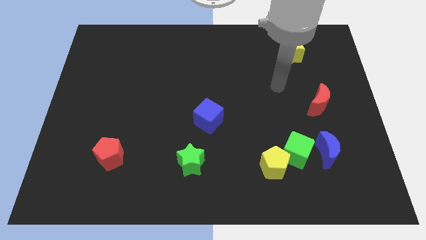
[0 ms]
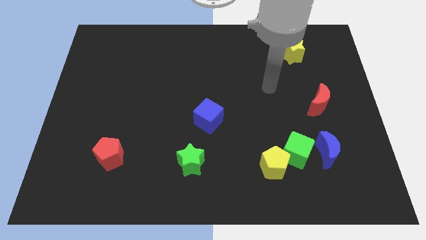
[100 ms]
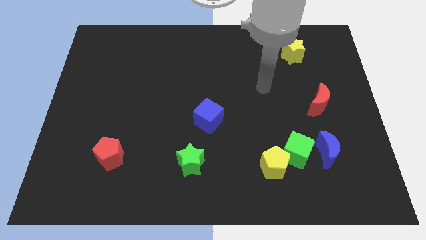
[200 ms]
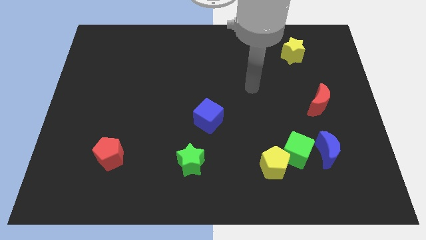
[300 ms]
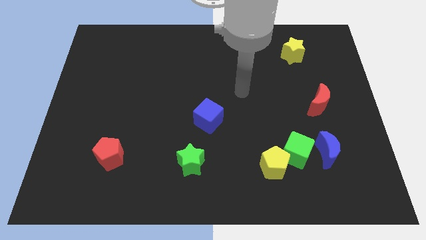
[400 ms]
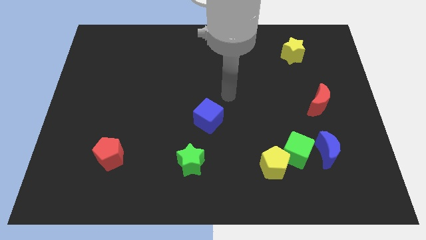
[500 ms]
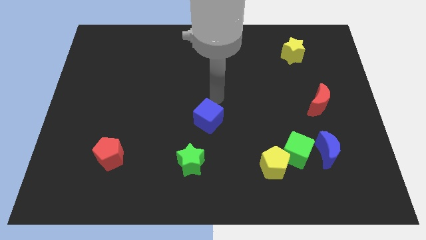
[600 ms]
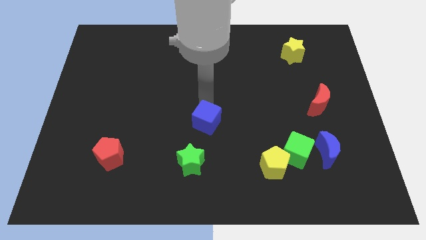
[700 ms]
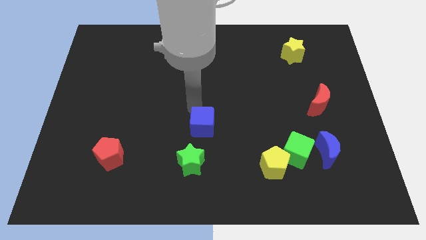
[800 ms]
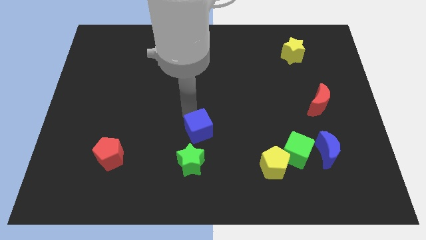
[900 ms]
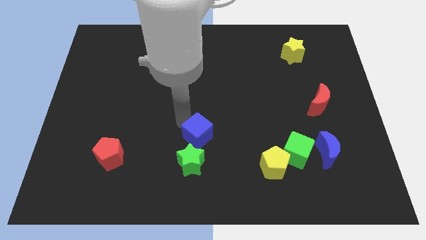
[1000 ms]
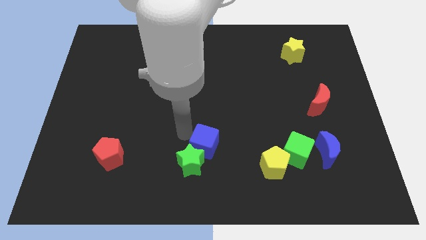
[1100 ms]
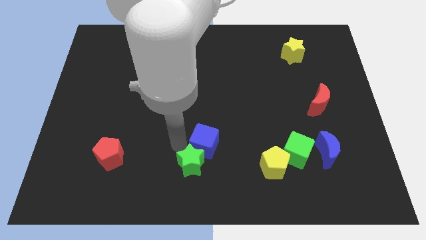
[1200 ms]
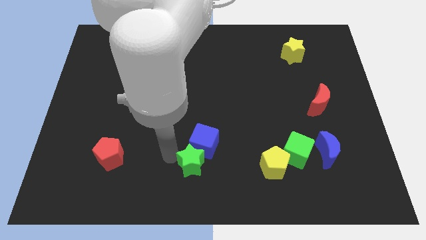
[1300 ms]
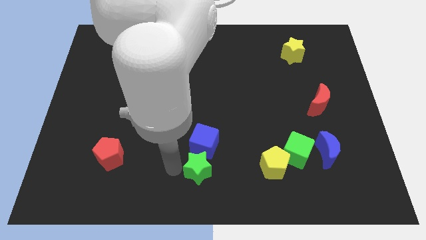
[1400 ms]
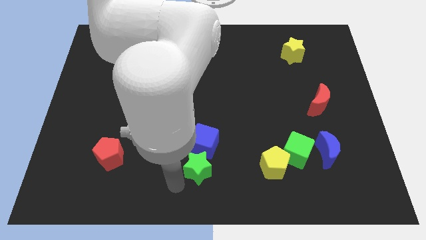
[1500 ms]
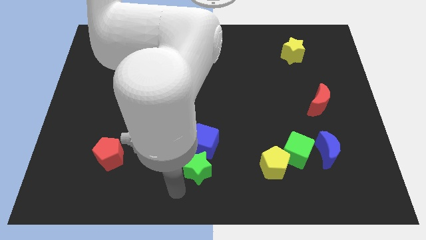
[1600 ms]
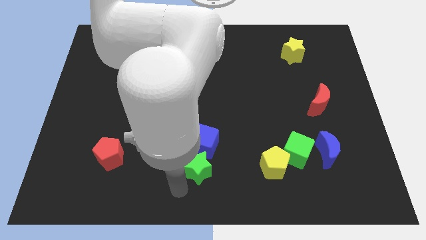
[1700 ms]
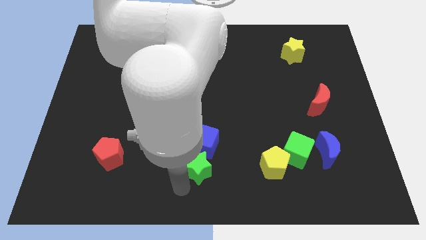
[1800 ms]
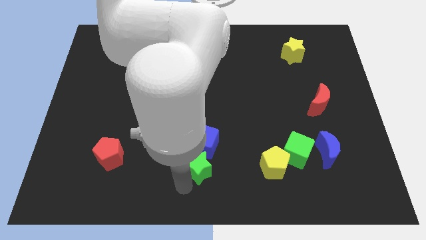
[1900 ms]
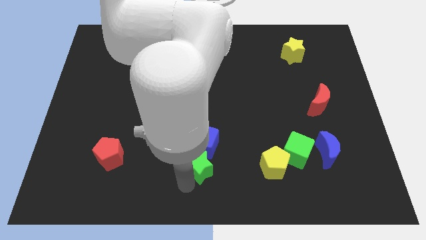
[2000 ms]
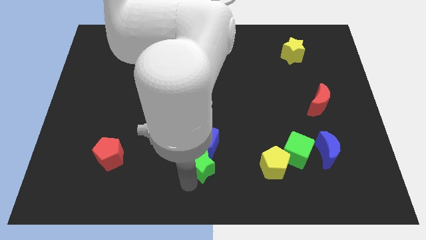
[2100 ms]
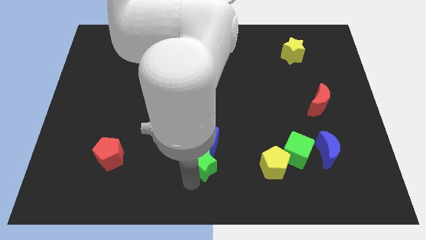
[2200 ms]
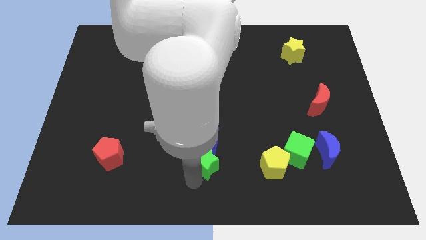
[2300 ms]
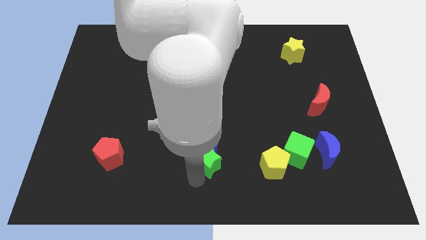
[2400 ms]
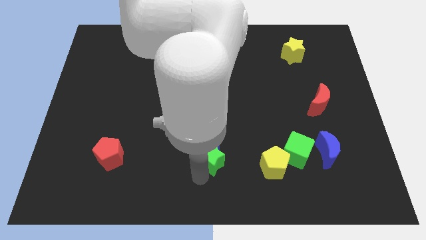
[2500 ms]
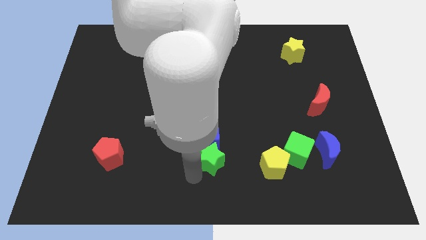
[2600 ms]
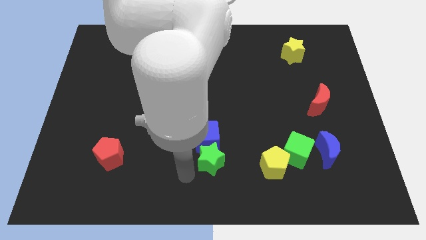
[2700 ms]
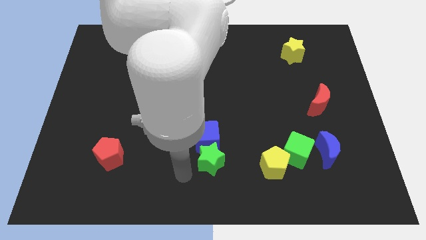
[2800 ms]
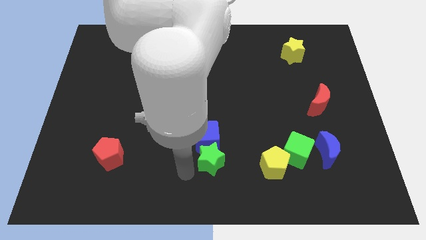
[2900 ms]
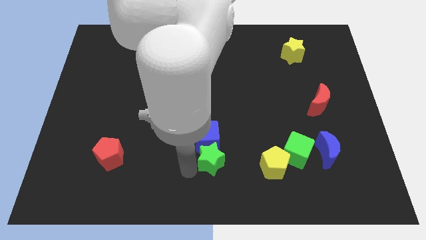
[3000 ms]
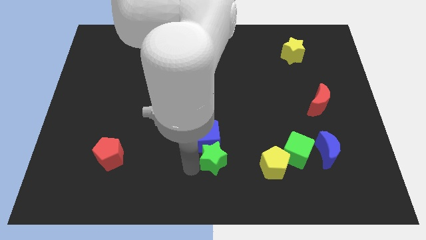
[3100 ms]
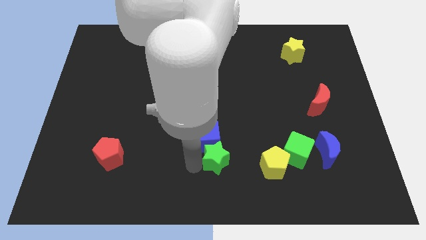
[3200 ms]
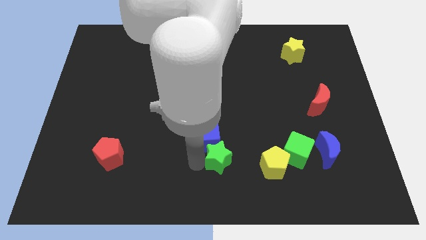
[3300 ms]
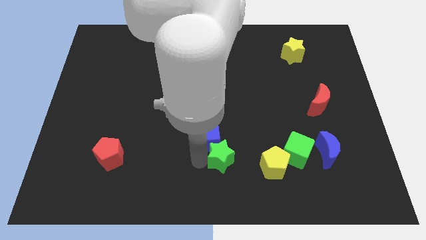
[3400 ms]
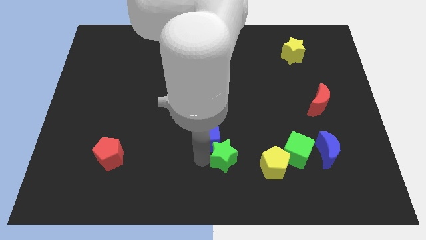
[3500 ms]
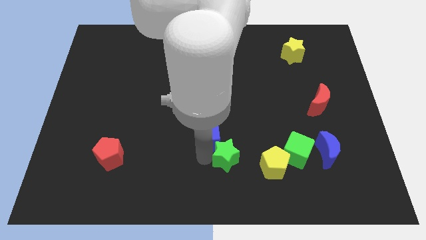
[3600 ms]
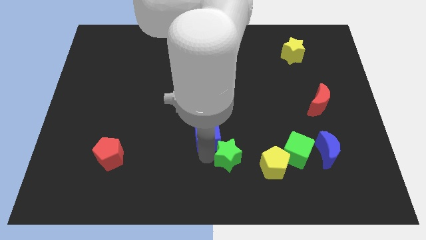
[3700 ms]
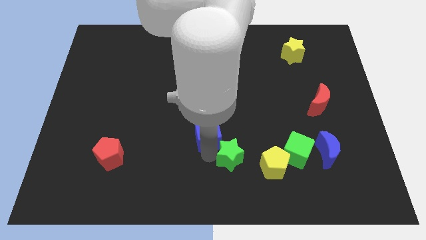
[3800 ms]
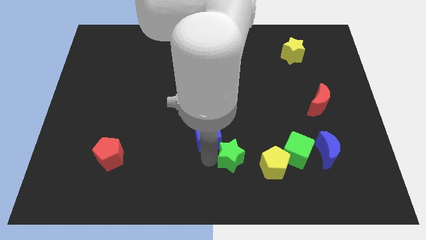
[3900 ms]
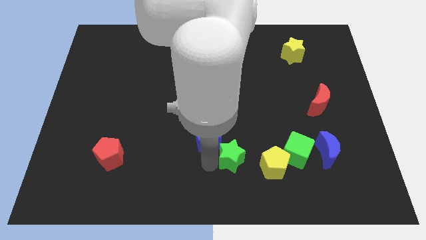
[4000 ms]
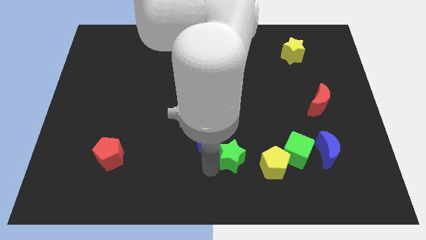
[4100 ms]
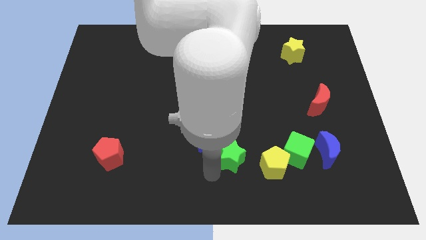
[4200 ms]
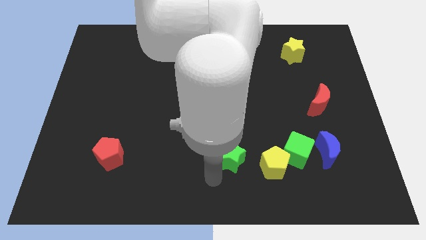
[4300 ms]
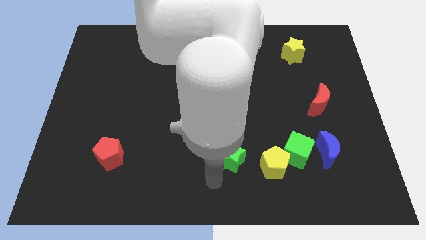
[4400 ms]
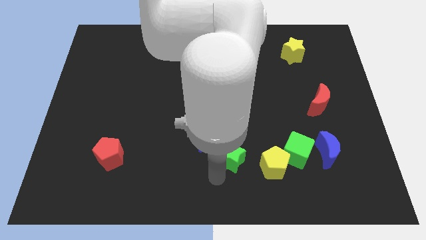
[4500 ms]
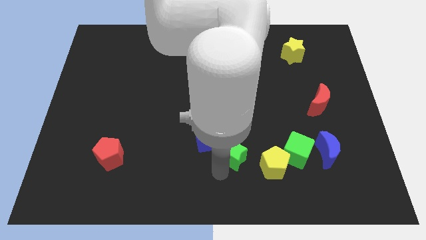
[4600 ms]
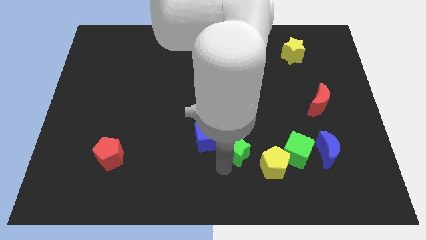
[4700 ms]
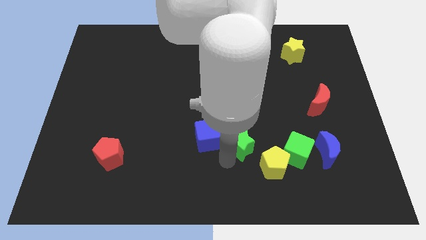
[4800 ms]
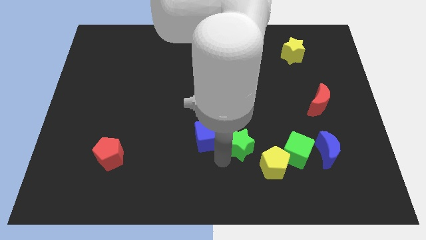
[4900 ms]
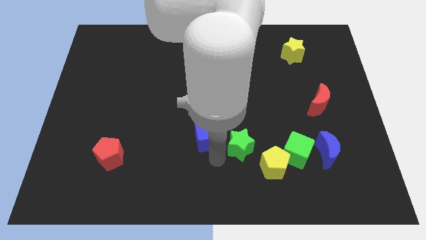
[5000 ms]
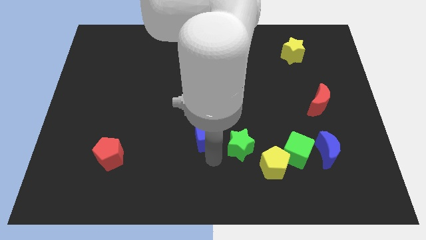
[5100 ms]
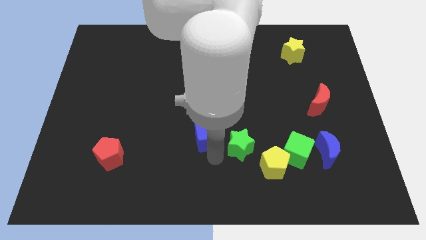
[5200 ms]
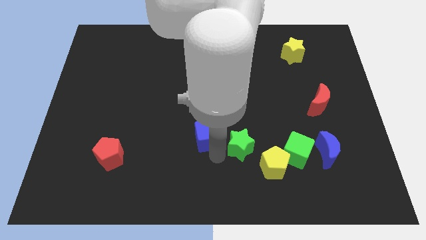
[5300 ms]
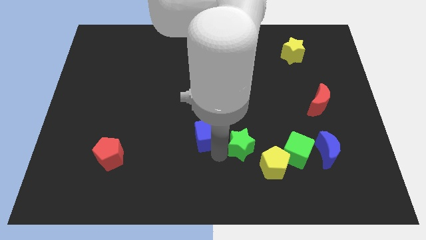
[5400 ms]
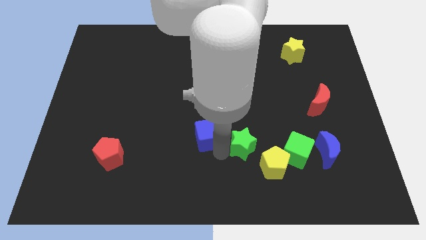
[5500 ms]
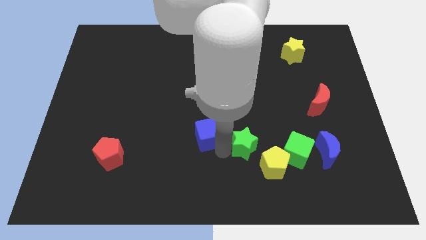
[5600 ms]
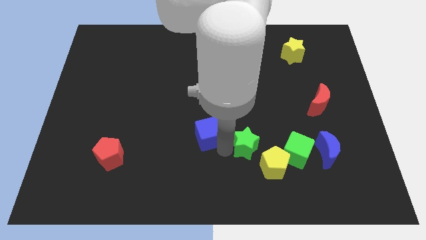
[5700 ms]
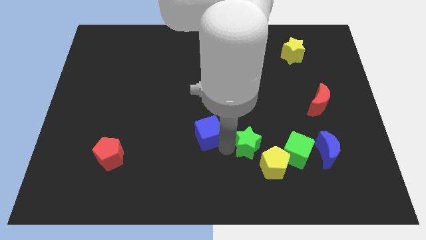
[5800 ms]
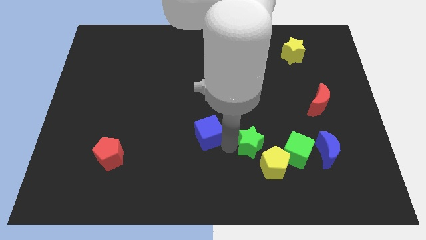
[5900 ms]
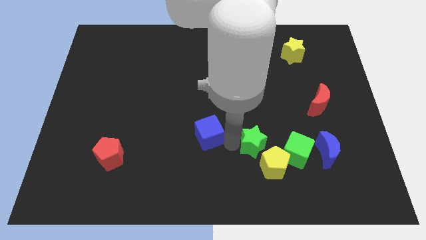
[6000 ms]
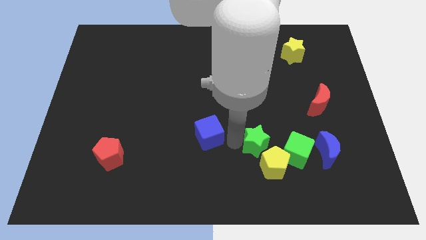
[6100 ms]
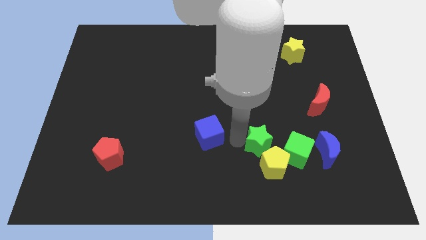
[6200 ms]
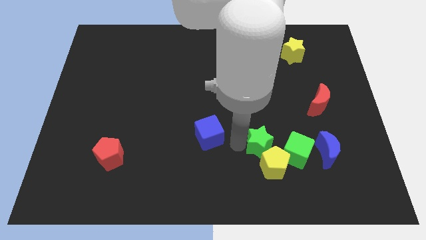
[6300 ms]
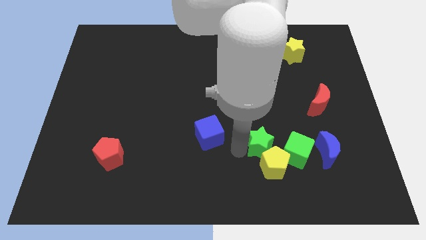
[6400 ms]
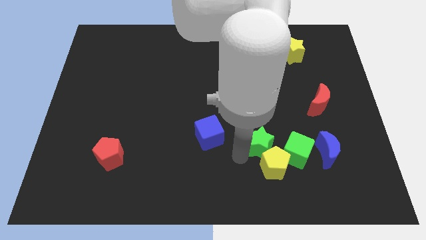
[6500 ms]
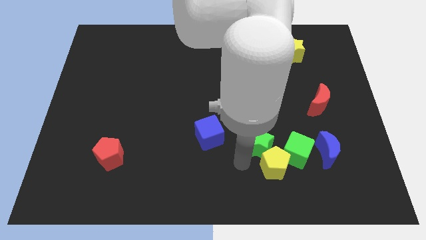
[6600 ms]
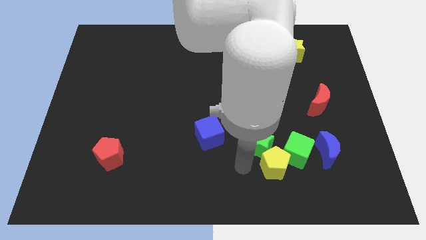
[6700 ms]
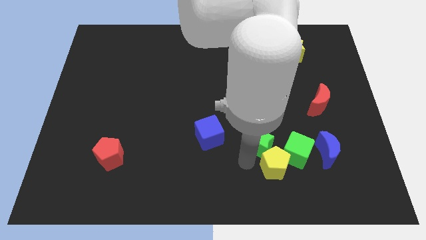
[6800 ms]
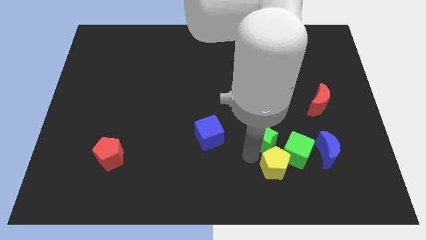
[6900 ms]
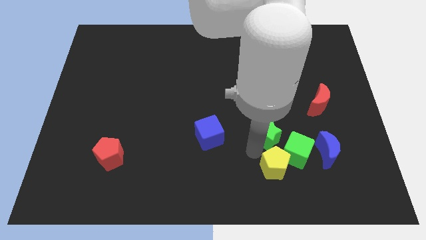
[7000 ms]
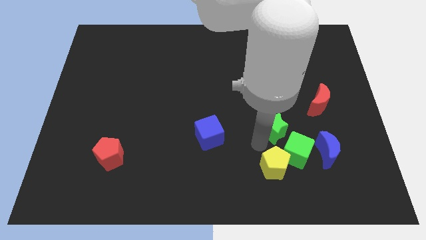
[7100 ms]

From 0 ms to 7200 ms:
push the green star to the top side of the green cube
